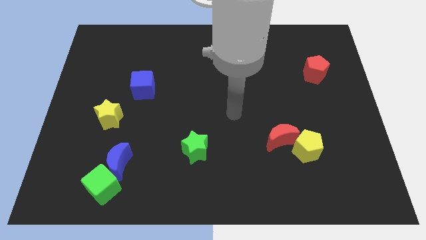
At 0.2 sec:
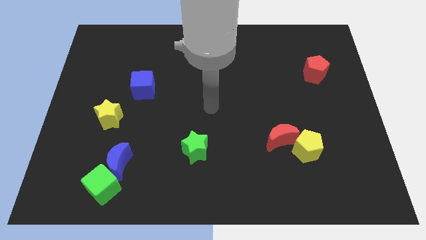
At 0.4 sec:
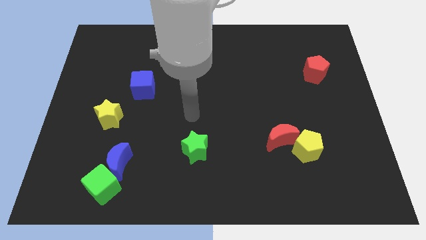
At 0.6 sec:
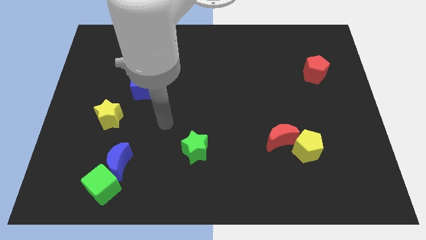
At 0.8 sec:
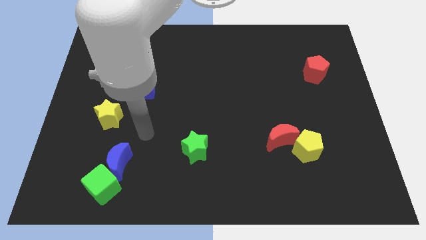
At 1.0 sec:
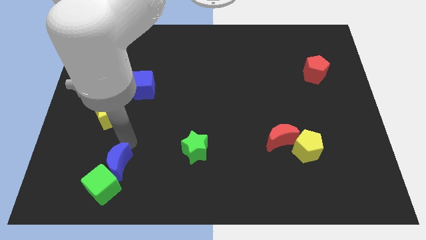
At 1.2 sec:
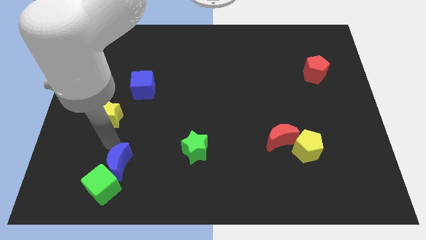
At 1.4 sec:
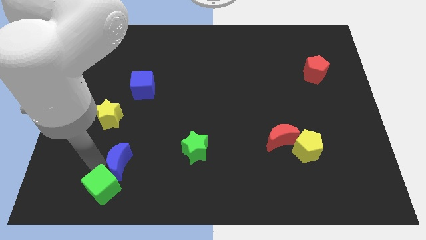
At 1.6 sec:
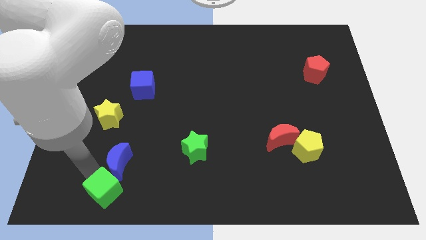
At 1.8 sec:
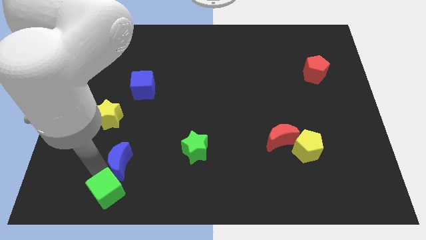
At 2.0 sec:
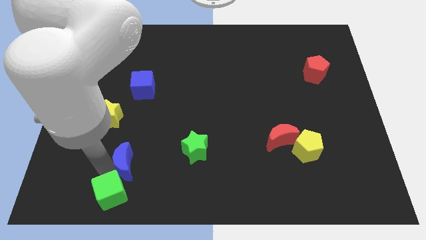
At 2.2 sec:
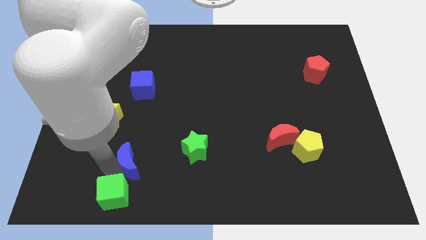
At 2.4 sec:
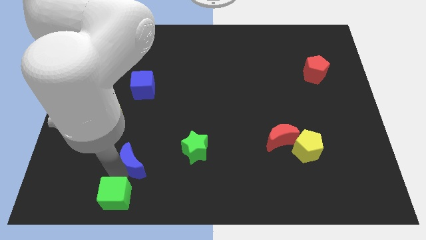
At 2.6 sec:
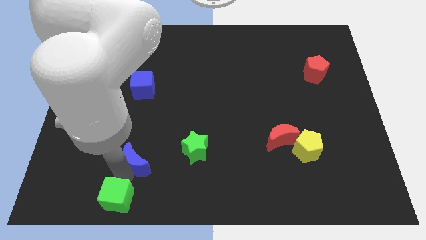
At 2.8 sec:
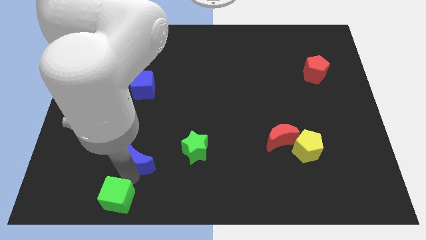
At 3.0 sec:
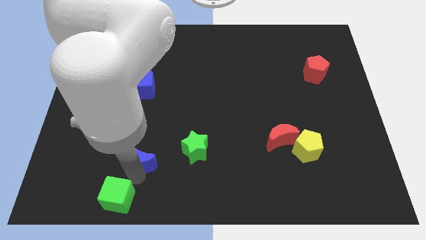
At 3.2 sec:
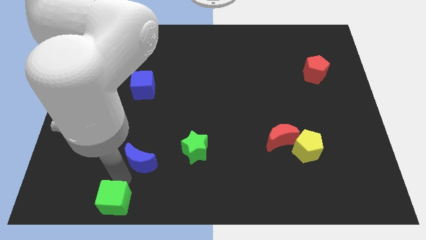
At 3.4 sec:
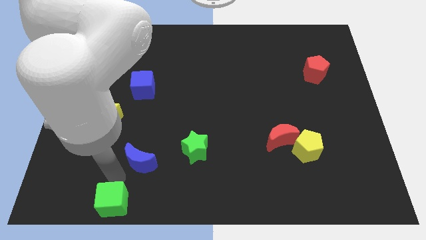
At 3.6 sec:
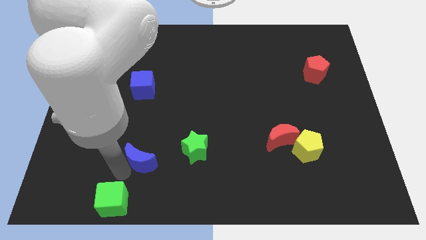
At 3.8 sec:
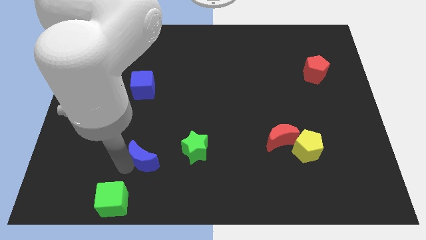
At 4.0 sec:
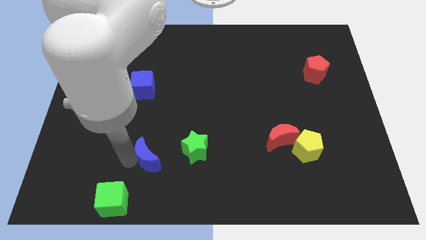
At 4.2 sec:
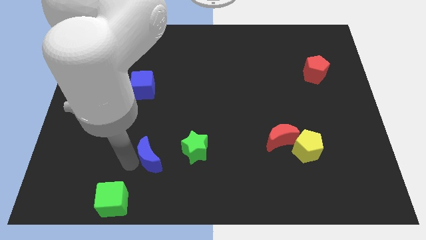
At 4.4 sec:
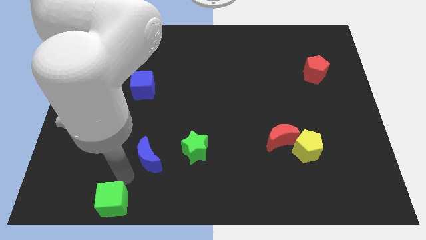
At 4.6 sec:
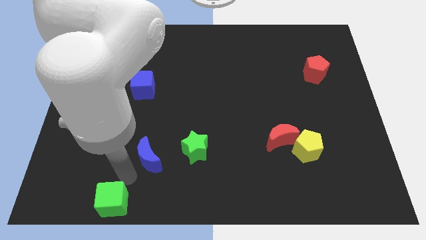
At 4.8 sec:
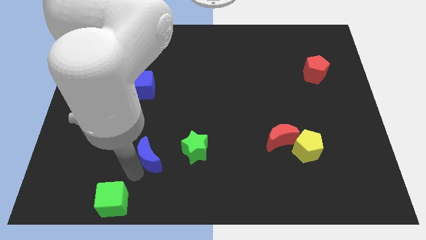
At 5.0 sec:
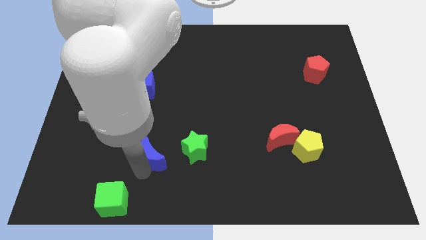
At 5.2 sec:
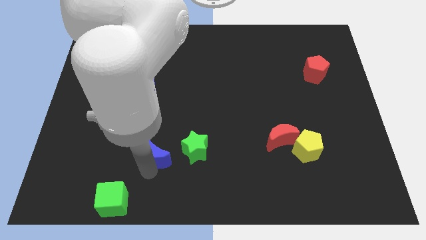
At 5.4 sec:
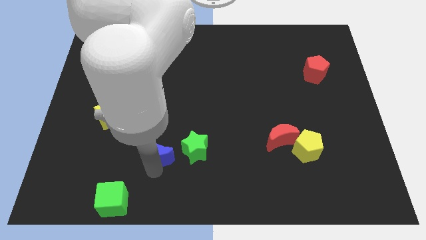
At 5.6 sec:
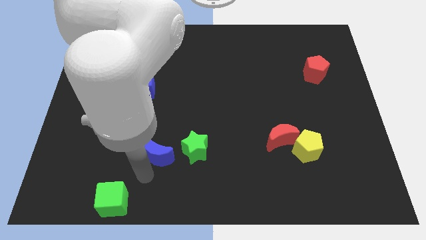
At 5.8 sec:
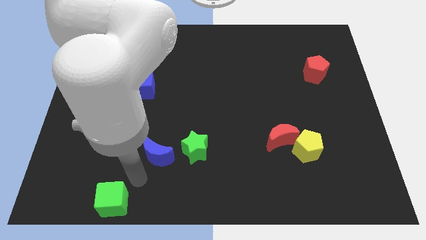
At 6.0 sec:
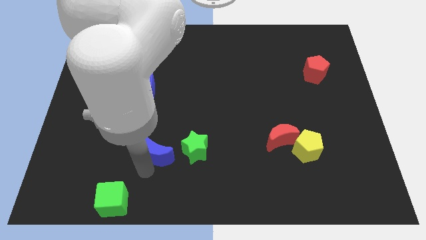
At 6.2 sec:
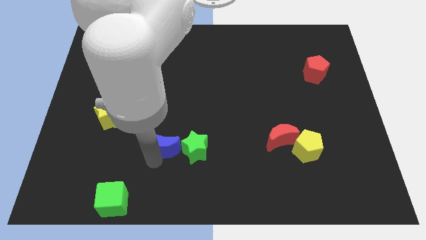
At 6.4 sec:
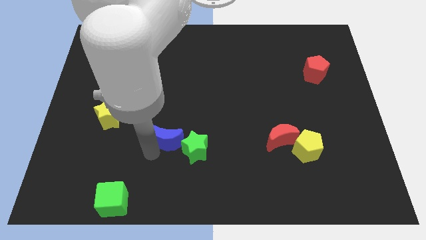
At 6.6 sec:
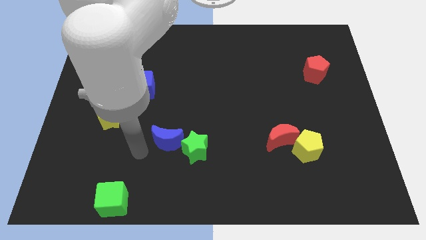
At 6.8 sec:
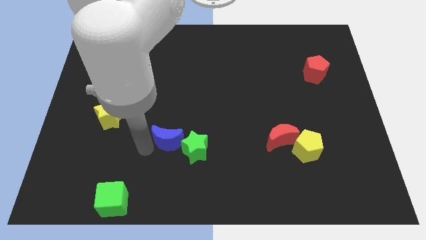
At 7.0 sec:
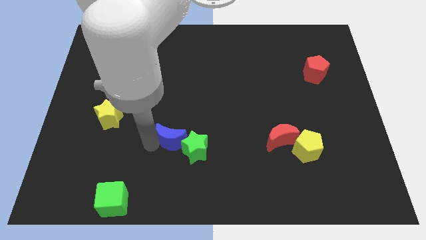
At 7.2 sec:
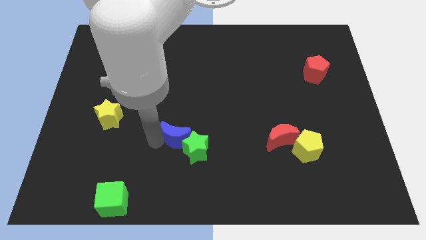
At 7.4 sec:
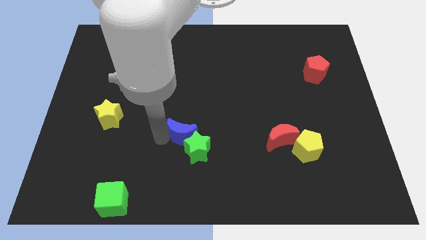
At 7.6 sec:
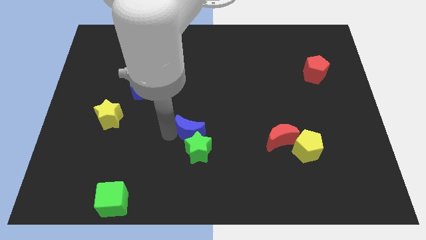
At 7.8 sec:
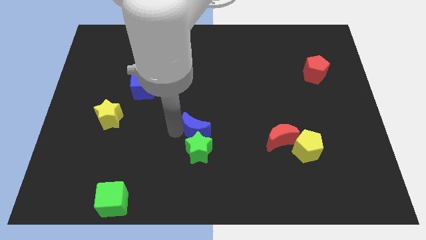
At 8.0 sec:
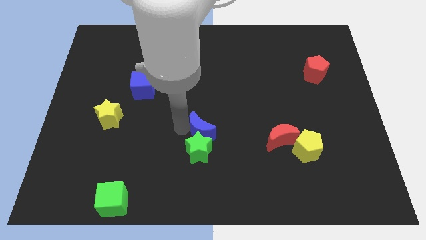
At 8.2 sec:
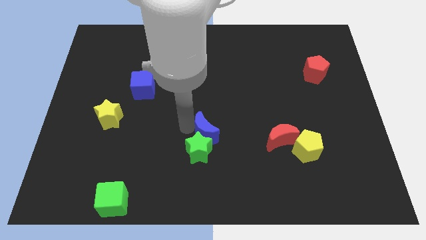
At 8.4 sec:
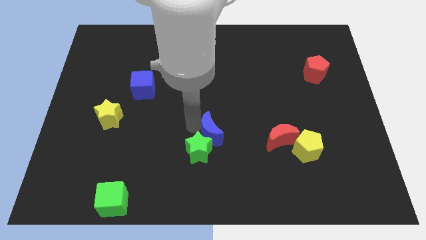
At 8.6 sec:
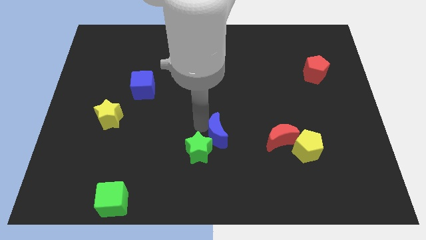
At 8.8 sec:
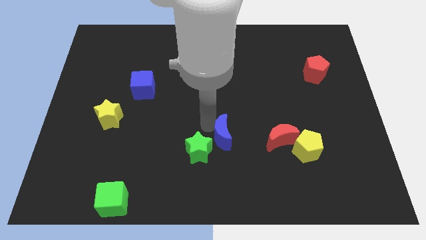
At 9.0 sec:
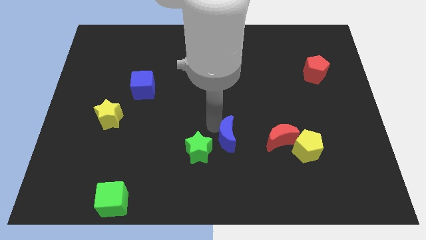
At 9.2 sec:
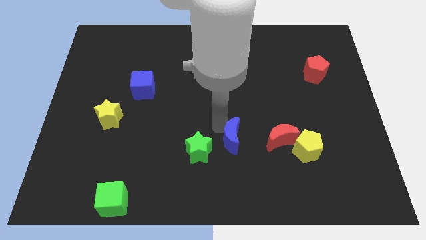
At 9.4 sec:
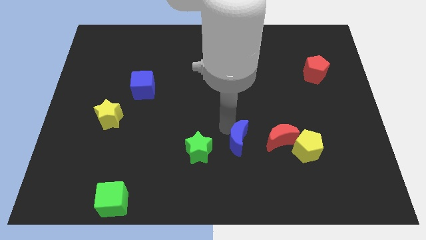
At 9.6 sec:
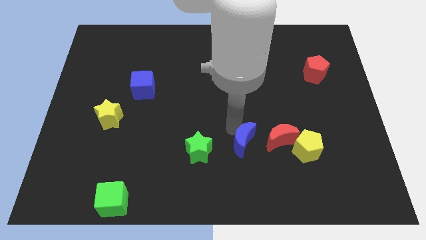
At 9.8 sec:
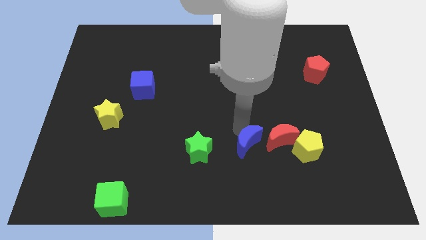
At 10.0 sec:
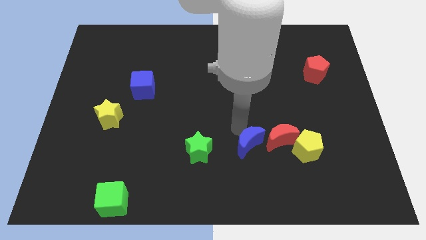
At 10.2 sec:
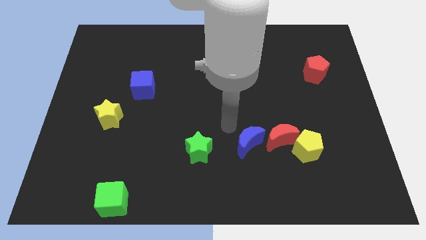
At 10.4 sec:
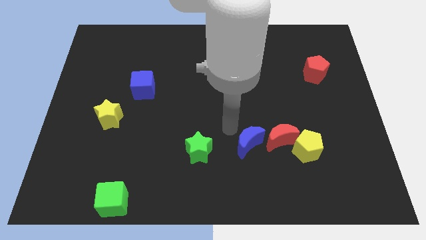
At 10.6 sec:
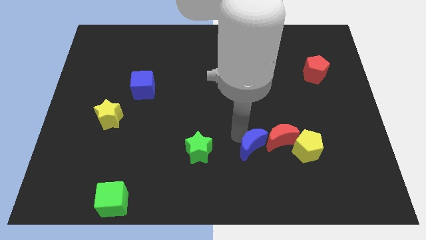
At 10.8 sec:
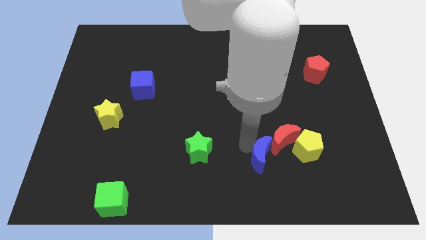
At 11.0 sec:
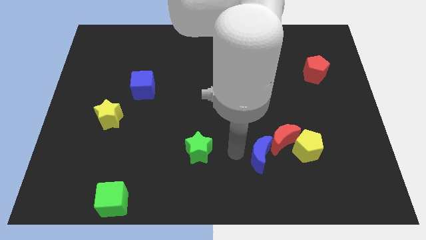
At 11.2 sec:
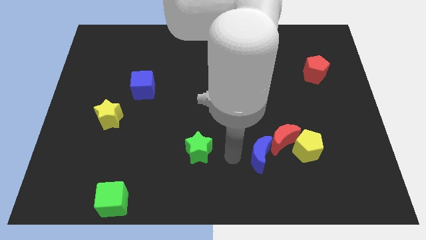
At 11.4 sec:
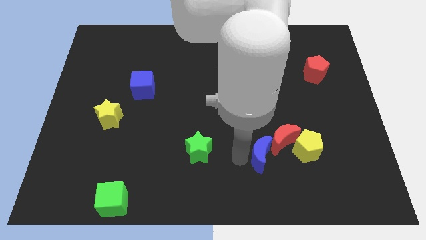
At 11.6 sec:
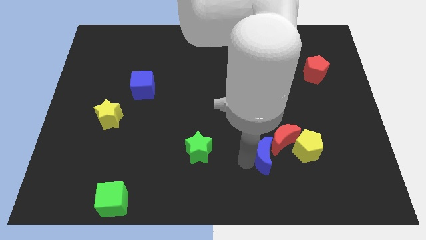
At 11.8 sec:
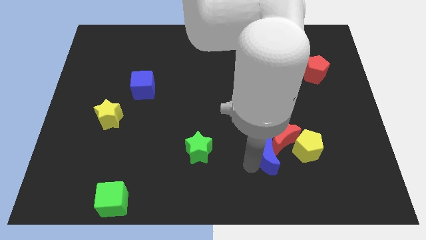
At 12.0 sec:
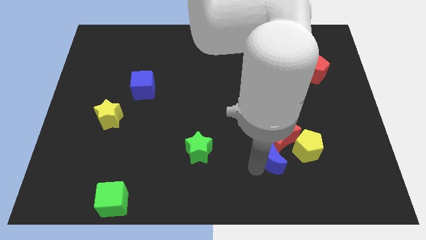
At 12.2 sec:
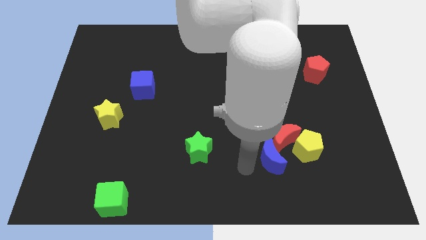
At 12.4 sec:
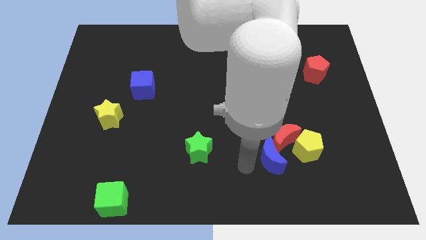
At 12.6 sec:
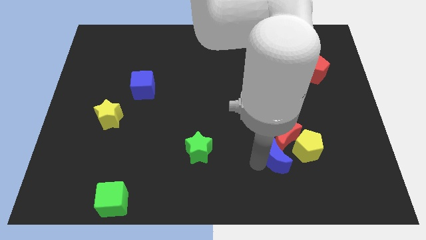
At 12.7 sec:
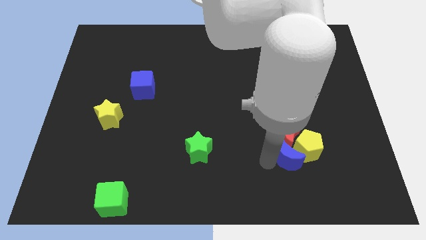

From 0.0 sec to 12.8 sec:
slide the blue moon towards the yellow pentagon

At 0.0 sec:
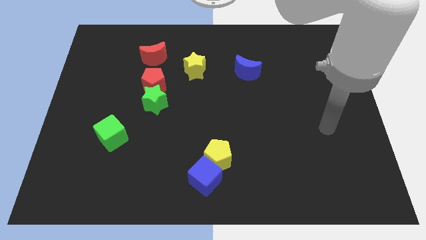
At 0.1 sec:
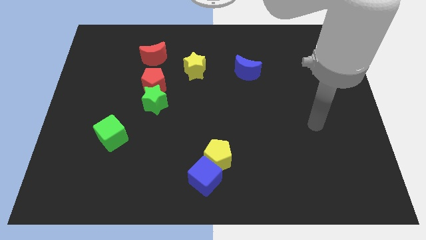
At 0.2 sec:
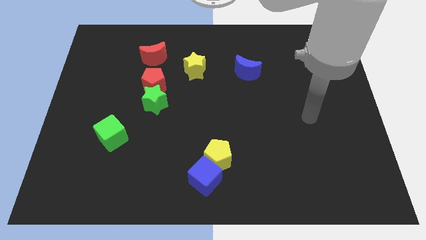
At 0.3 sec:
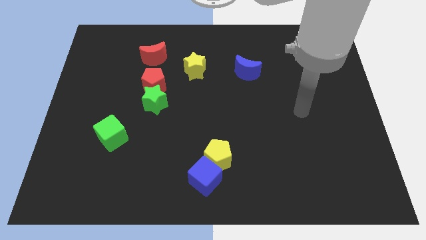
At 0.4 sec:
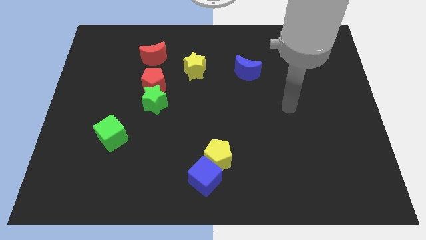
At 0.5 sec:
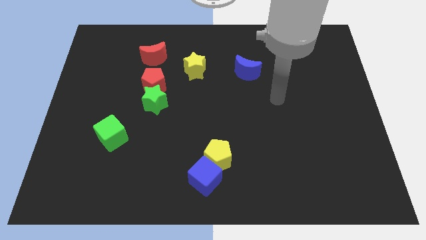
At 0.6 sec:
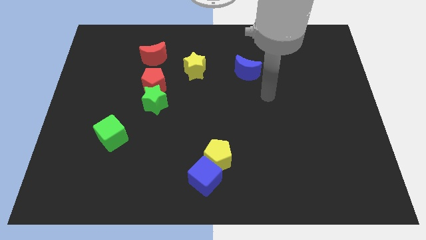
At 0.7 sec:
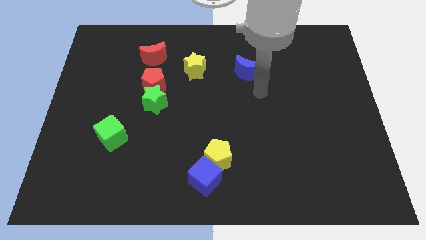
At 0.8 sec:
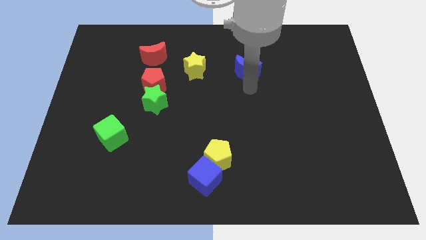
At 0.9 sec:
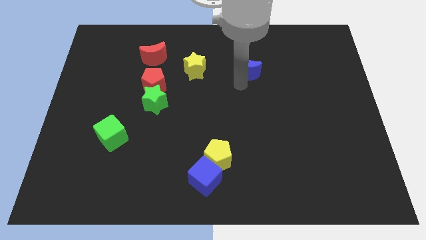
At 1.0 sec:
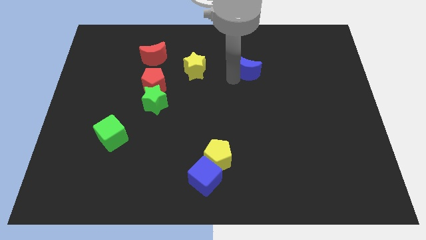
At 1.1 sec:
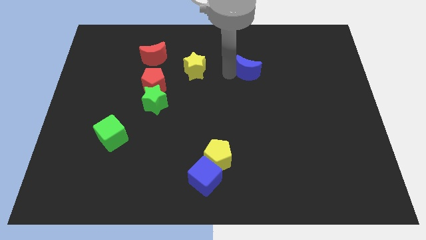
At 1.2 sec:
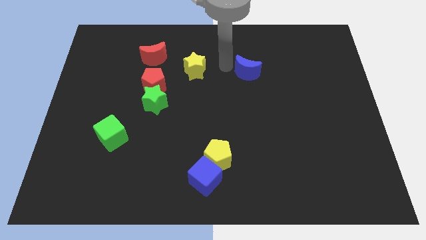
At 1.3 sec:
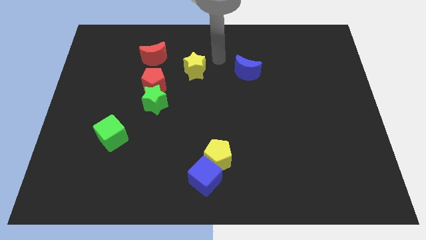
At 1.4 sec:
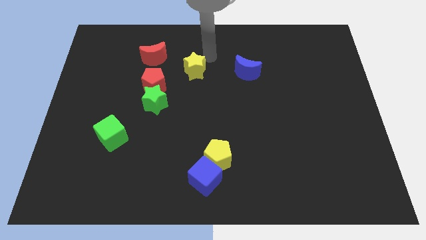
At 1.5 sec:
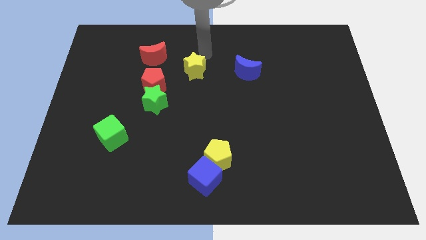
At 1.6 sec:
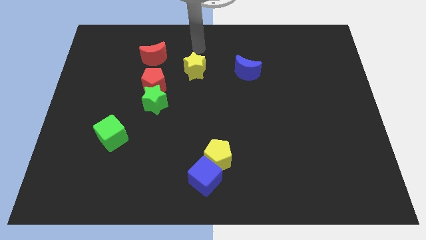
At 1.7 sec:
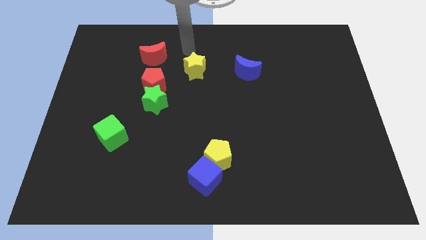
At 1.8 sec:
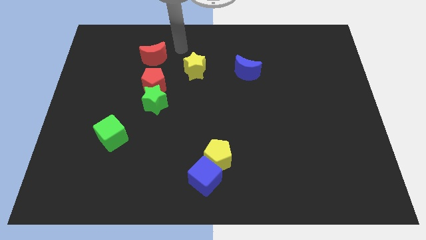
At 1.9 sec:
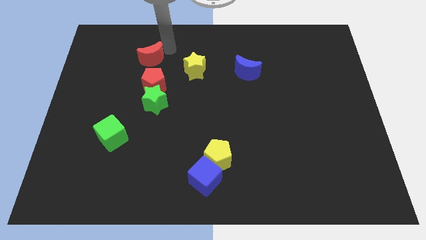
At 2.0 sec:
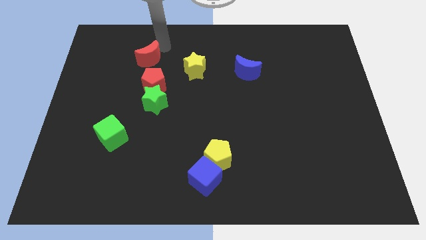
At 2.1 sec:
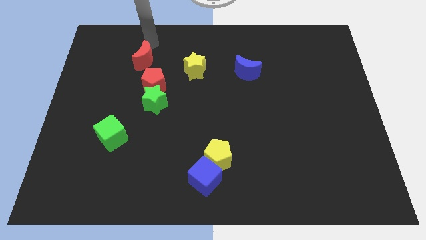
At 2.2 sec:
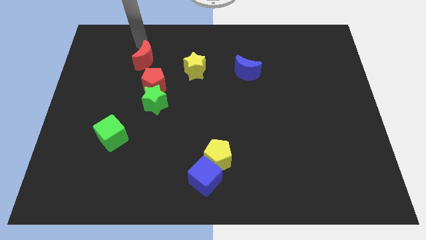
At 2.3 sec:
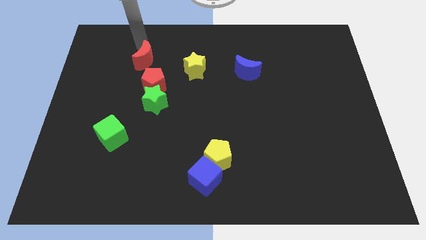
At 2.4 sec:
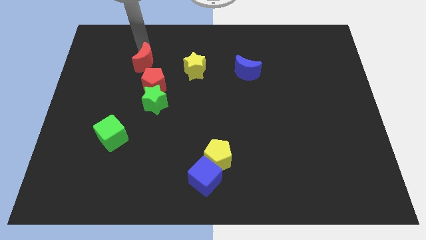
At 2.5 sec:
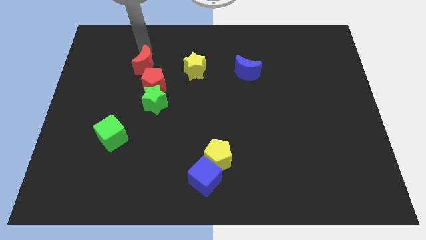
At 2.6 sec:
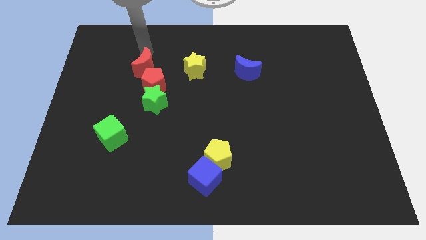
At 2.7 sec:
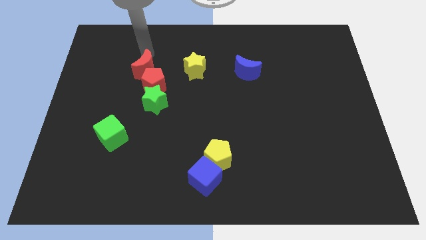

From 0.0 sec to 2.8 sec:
put the red moon close to the red pentagon
